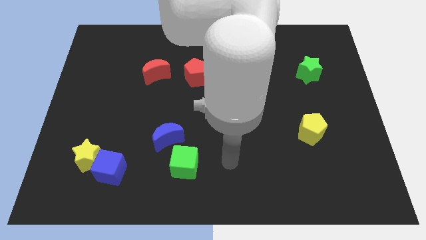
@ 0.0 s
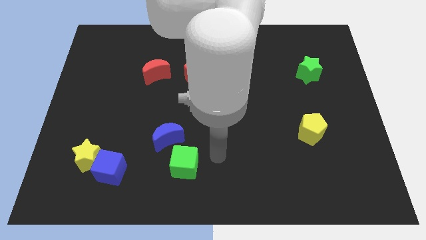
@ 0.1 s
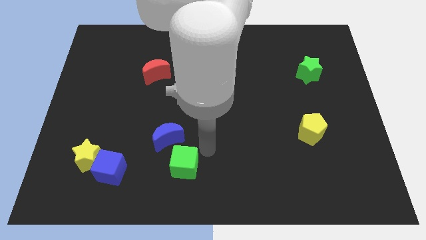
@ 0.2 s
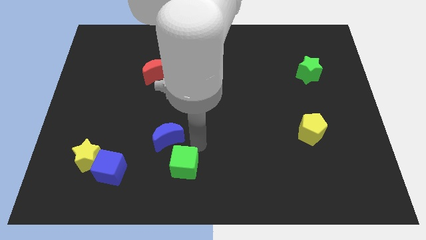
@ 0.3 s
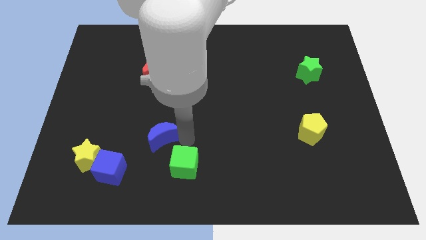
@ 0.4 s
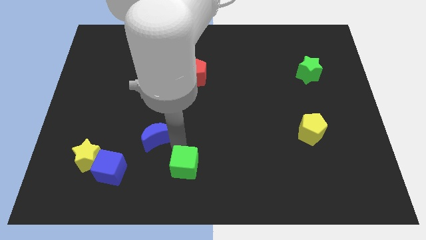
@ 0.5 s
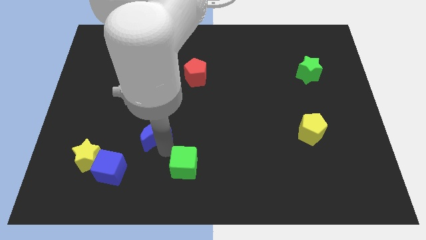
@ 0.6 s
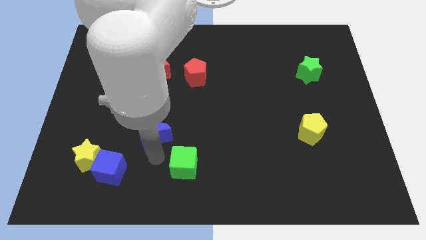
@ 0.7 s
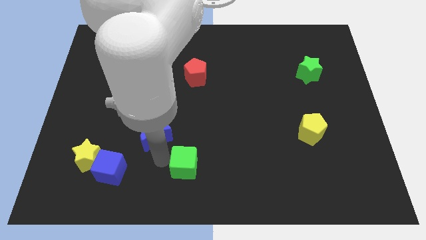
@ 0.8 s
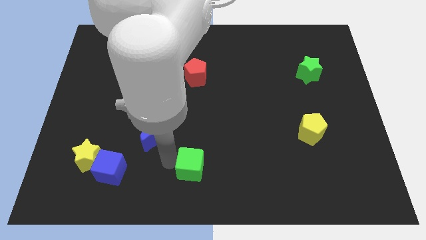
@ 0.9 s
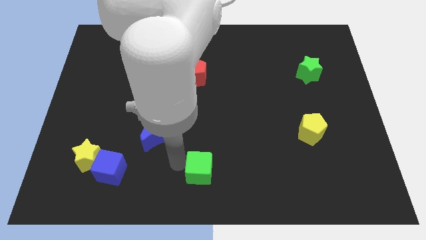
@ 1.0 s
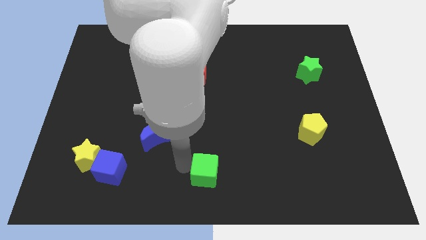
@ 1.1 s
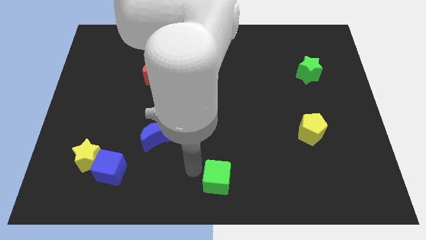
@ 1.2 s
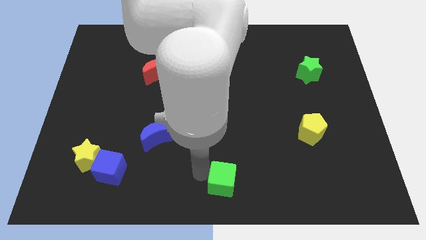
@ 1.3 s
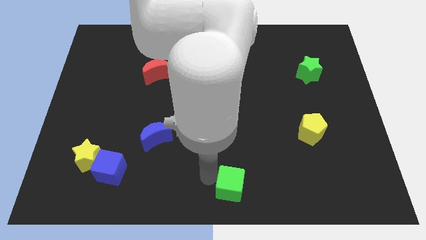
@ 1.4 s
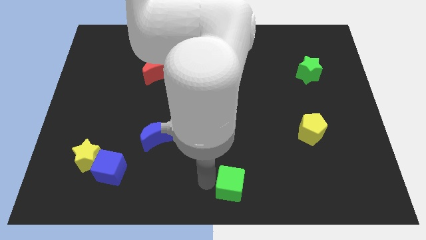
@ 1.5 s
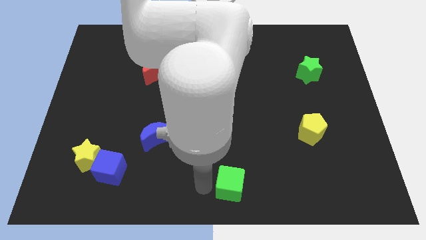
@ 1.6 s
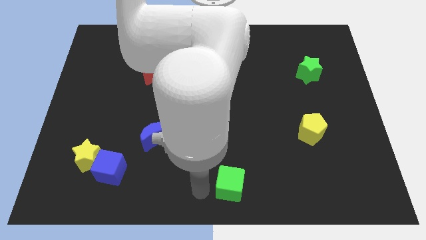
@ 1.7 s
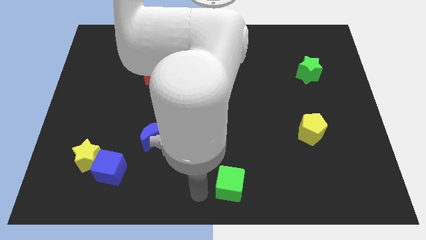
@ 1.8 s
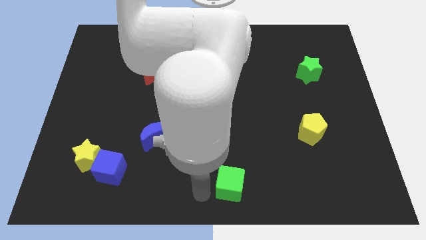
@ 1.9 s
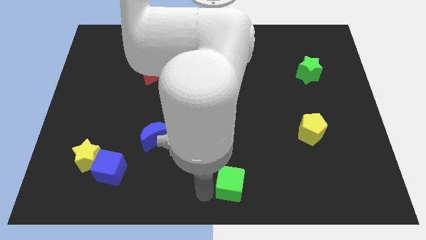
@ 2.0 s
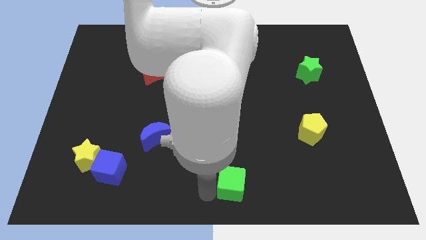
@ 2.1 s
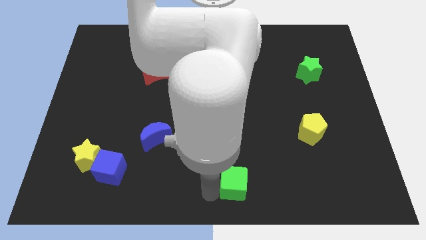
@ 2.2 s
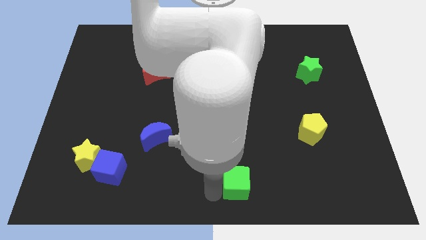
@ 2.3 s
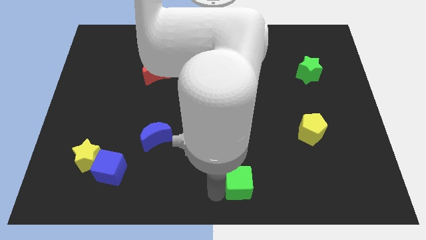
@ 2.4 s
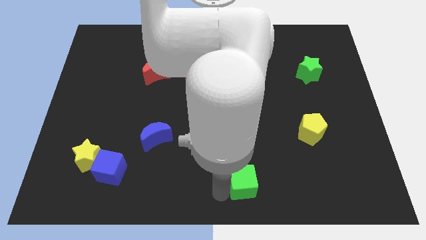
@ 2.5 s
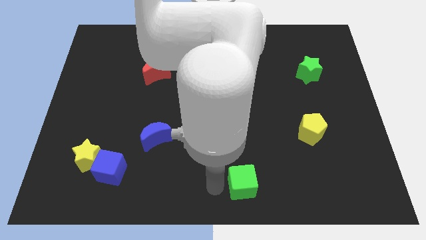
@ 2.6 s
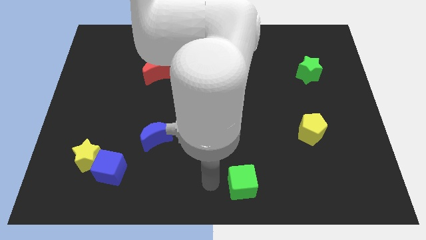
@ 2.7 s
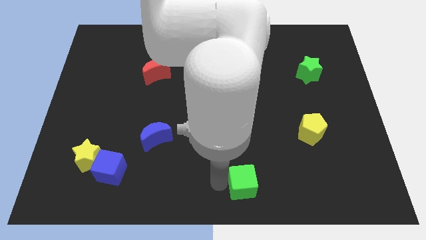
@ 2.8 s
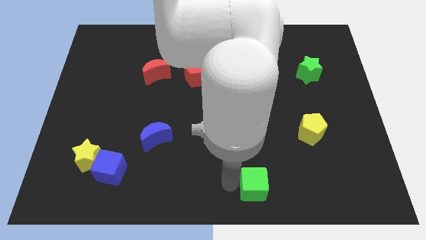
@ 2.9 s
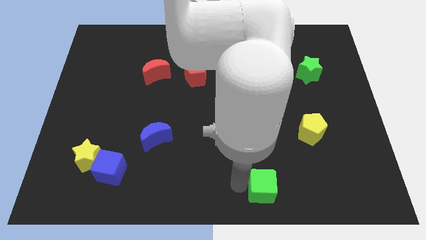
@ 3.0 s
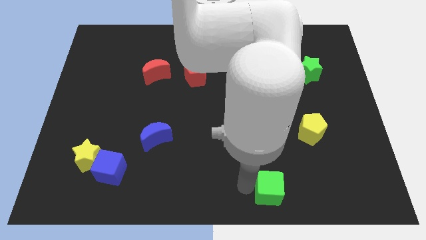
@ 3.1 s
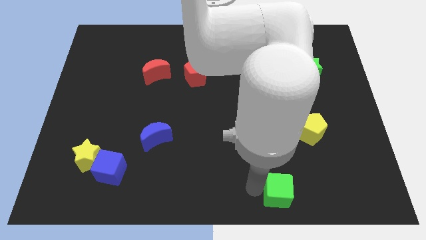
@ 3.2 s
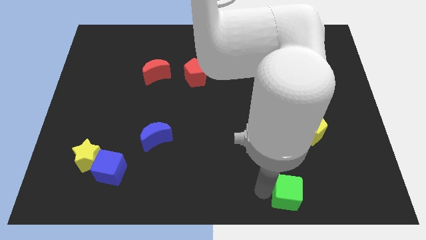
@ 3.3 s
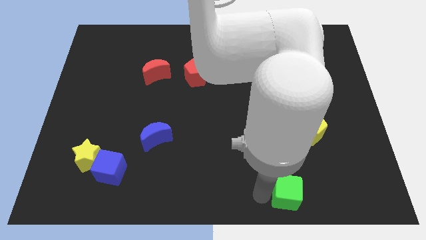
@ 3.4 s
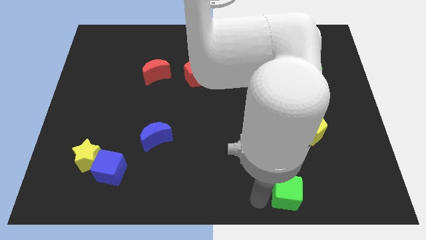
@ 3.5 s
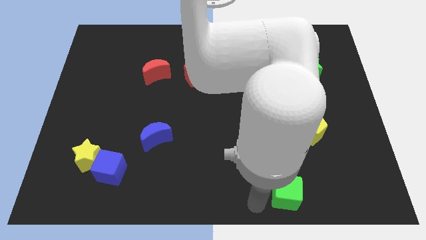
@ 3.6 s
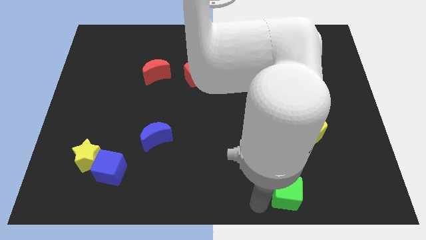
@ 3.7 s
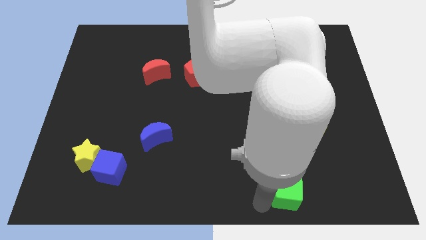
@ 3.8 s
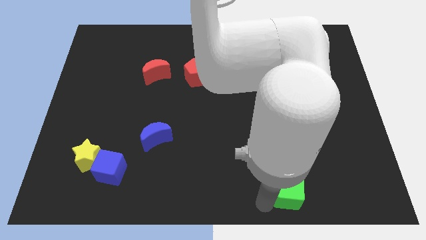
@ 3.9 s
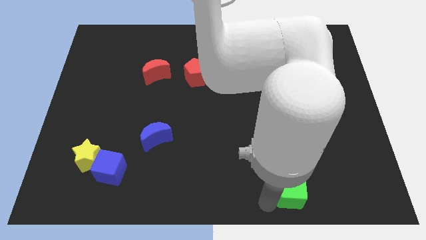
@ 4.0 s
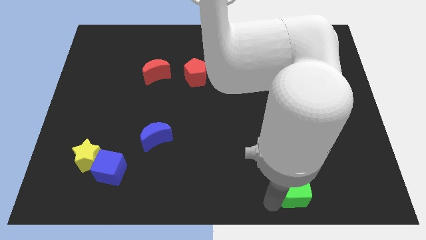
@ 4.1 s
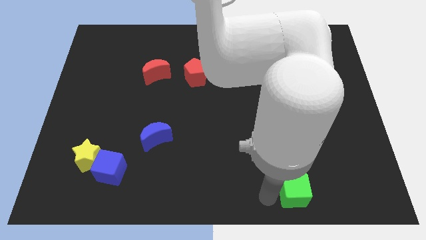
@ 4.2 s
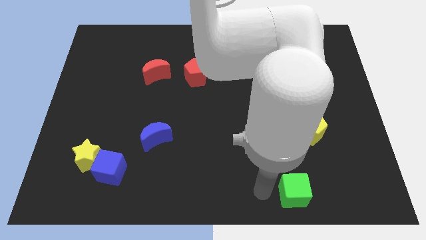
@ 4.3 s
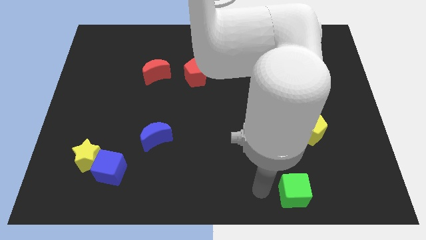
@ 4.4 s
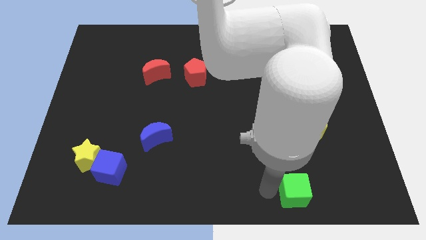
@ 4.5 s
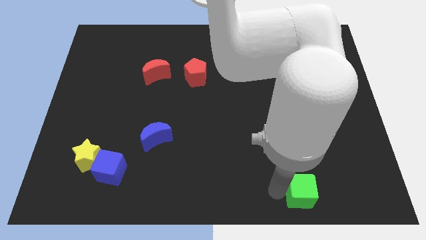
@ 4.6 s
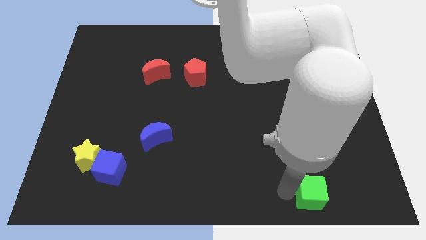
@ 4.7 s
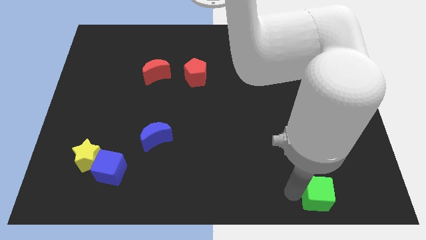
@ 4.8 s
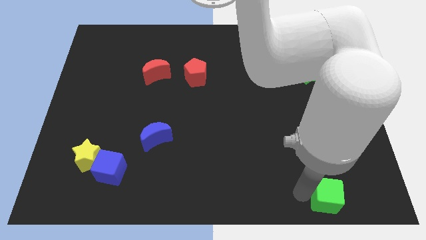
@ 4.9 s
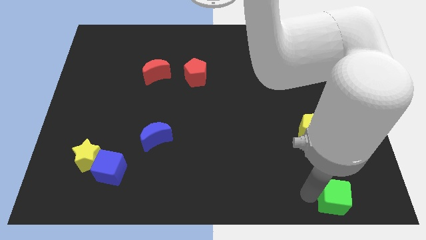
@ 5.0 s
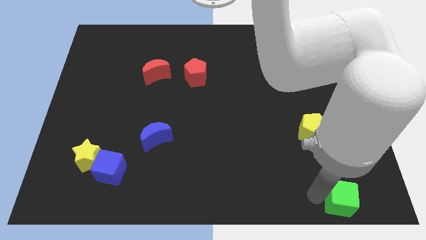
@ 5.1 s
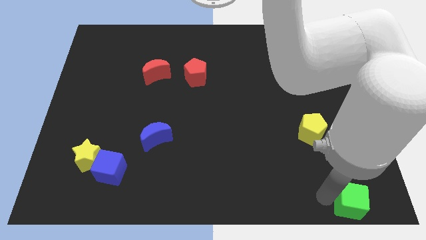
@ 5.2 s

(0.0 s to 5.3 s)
slide the green cube to the bottom right

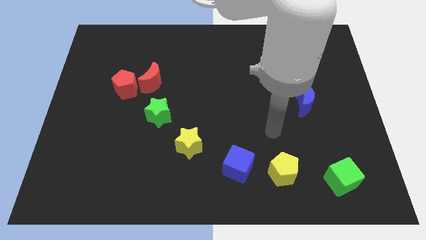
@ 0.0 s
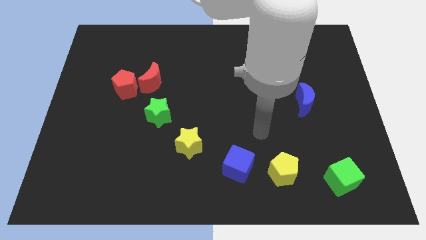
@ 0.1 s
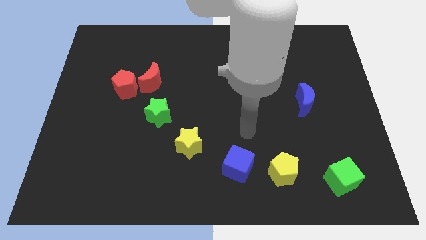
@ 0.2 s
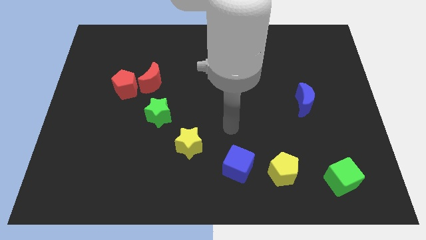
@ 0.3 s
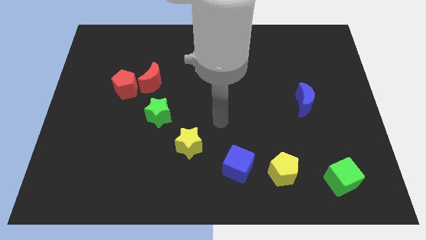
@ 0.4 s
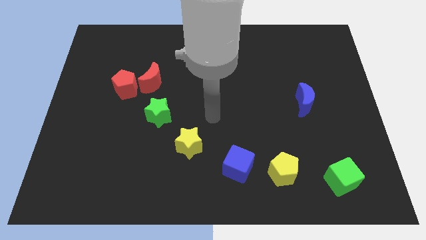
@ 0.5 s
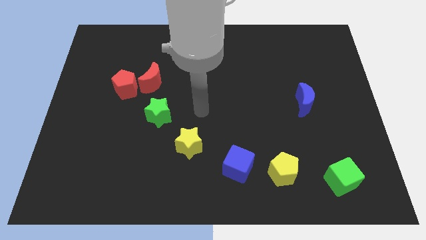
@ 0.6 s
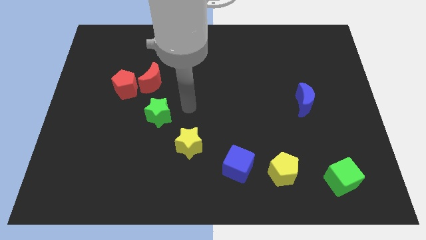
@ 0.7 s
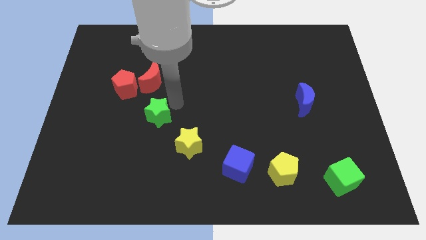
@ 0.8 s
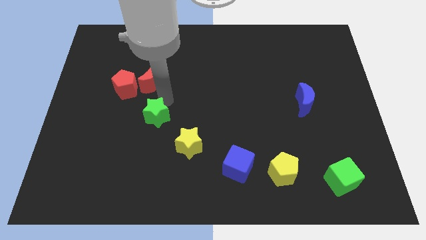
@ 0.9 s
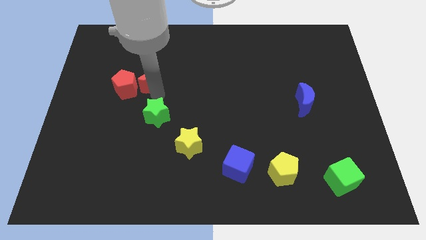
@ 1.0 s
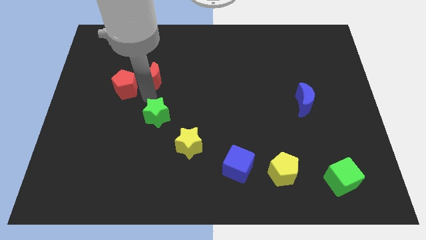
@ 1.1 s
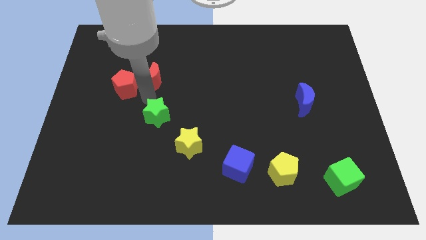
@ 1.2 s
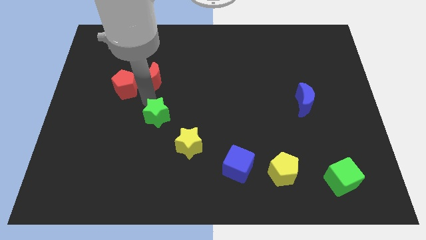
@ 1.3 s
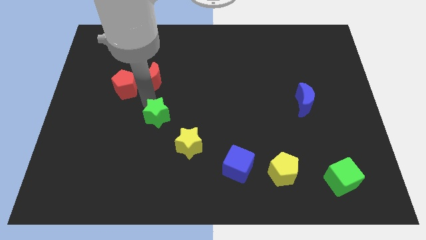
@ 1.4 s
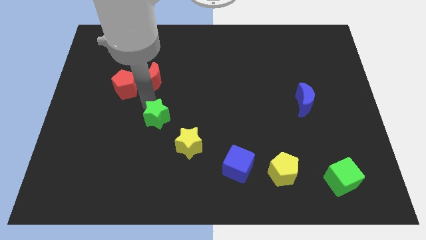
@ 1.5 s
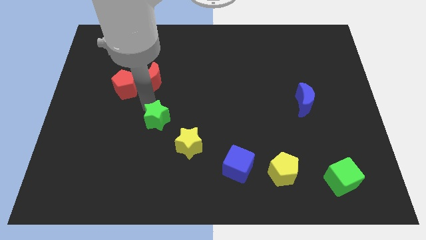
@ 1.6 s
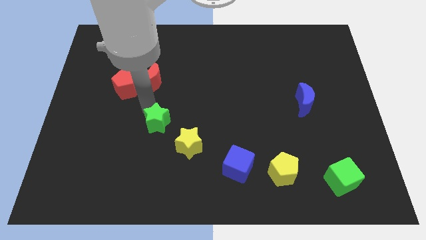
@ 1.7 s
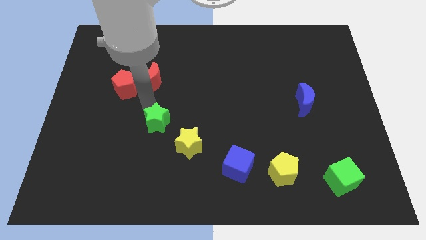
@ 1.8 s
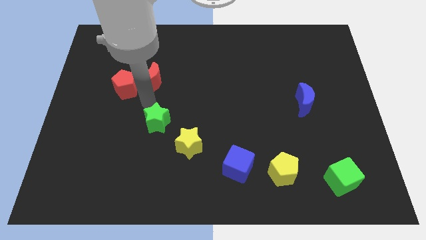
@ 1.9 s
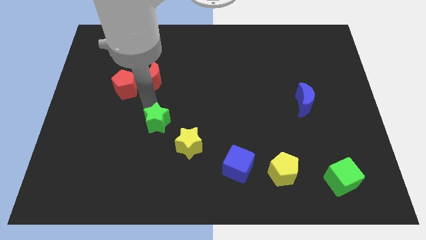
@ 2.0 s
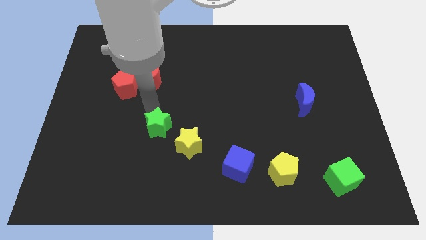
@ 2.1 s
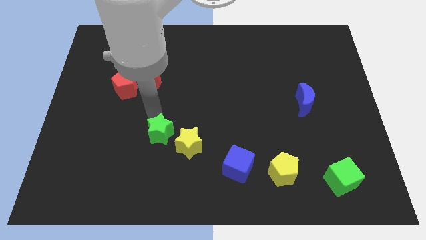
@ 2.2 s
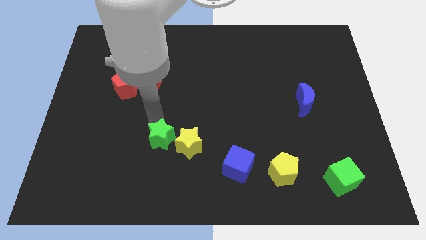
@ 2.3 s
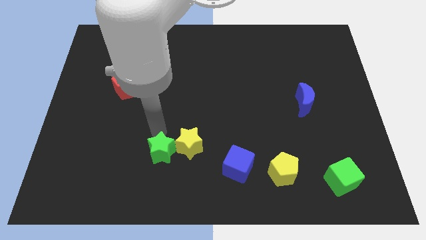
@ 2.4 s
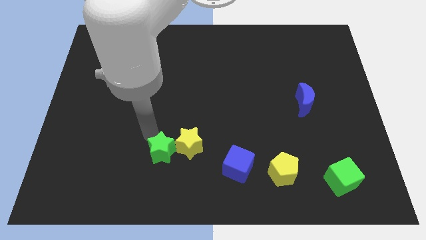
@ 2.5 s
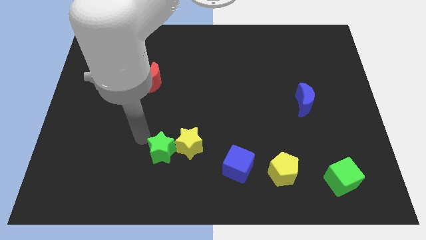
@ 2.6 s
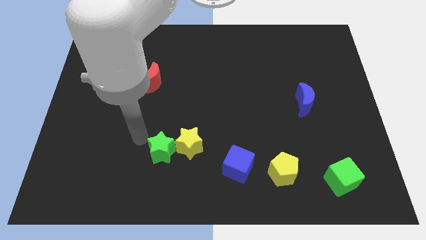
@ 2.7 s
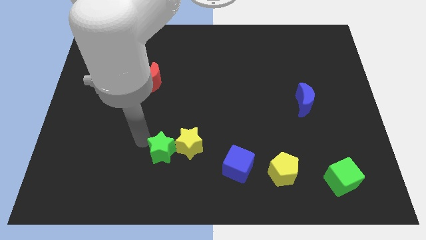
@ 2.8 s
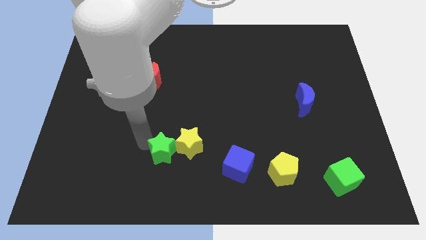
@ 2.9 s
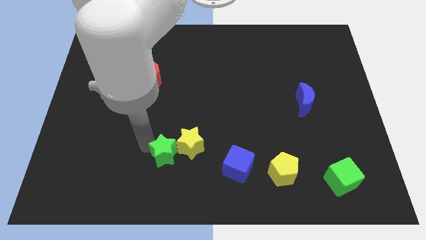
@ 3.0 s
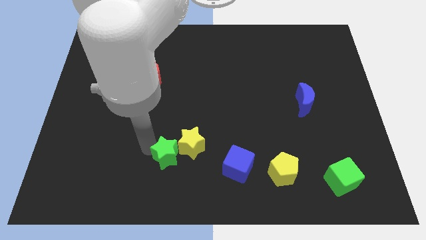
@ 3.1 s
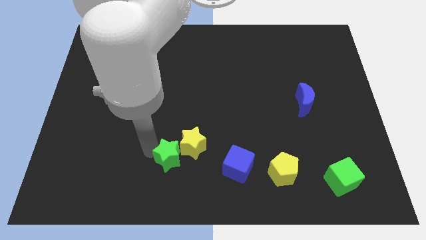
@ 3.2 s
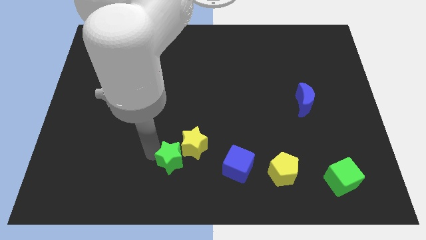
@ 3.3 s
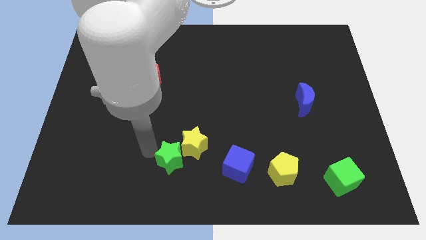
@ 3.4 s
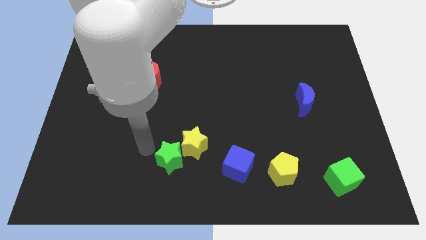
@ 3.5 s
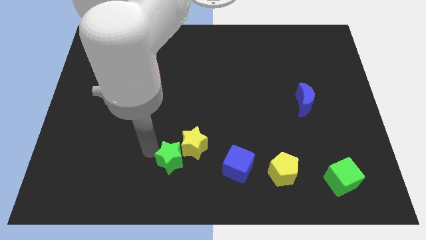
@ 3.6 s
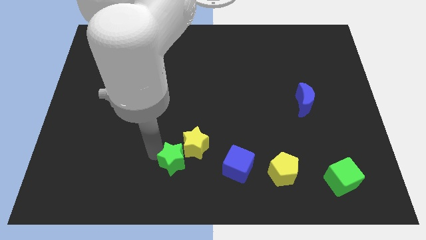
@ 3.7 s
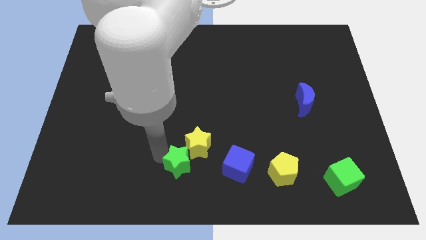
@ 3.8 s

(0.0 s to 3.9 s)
slide the green star to the bottom
